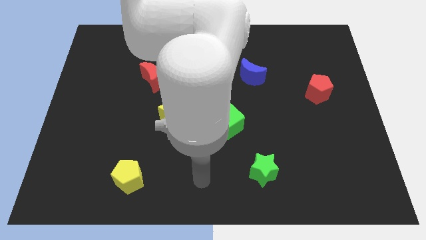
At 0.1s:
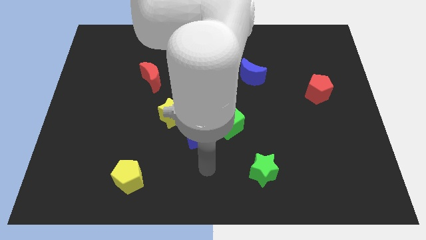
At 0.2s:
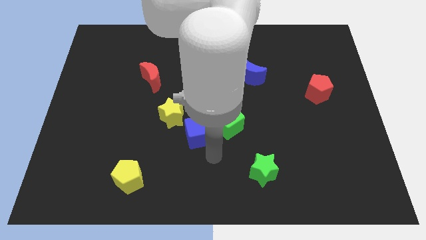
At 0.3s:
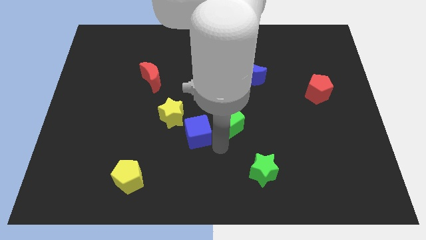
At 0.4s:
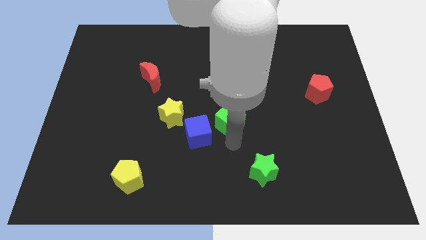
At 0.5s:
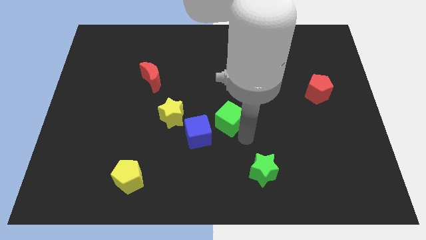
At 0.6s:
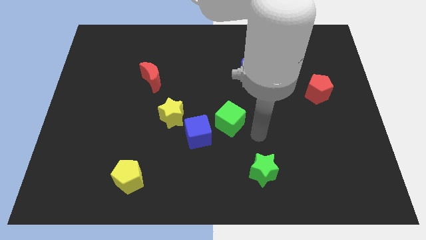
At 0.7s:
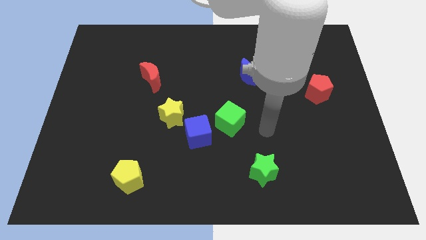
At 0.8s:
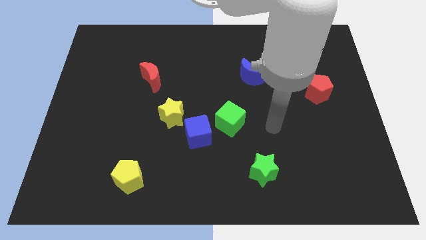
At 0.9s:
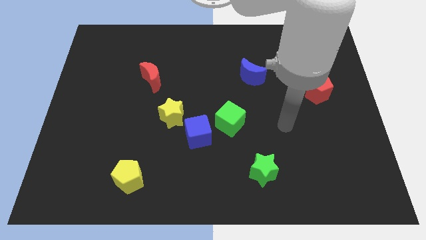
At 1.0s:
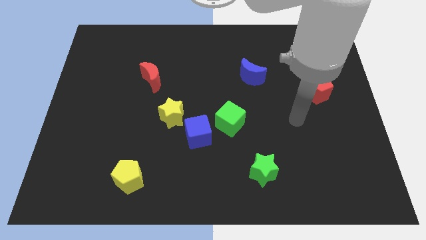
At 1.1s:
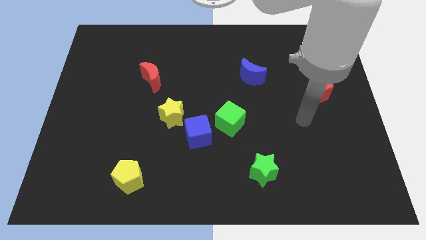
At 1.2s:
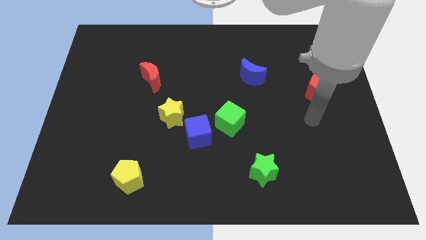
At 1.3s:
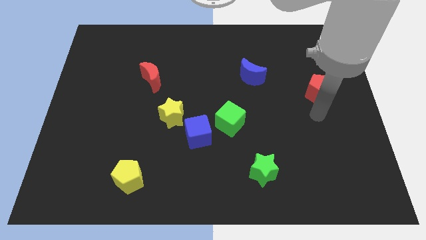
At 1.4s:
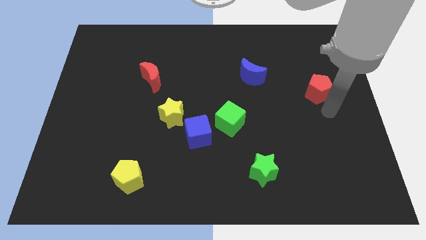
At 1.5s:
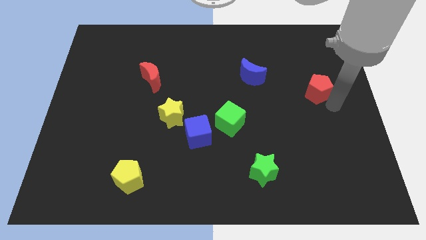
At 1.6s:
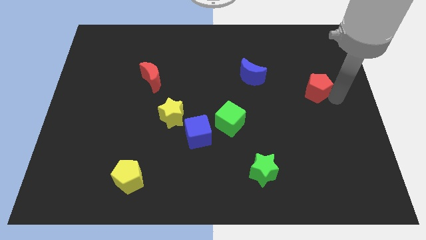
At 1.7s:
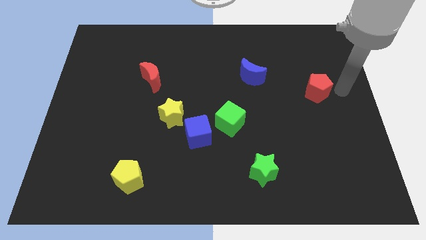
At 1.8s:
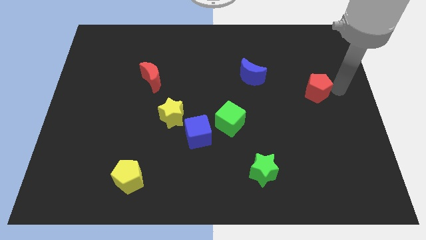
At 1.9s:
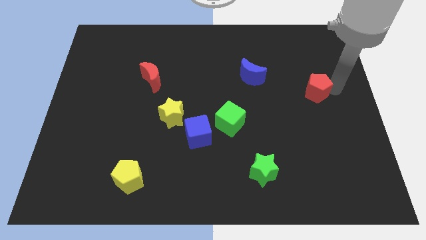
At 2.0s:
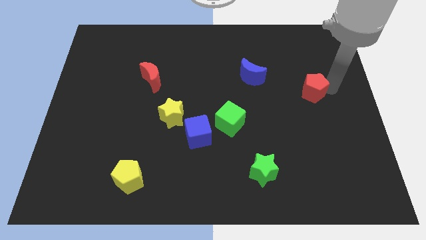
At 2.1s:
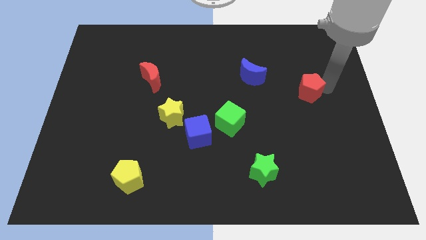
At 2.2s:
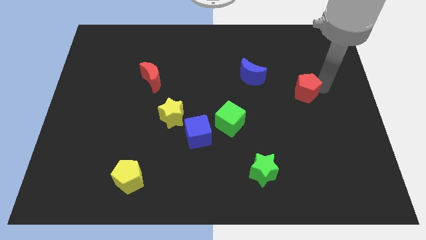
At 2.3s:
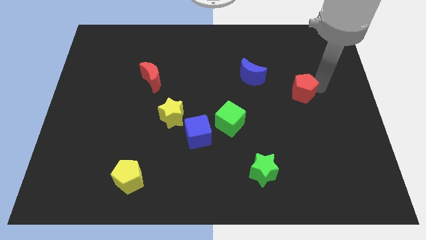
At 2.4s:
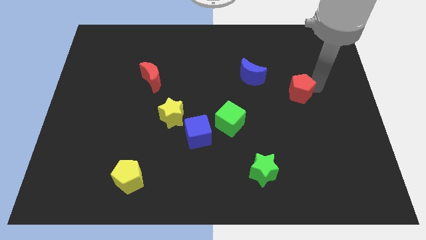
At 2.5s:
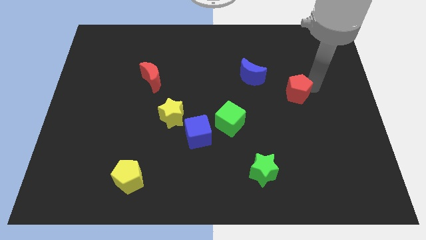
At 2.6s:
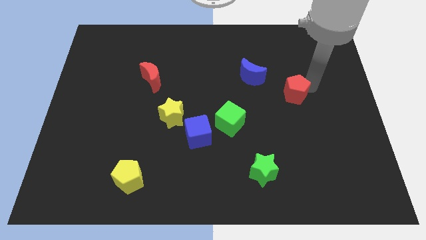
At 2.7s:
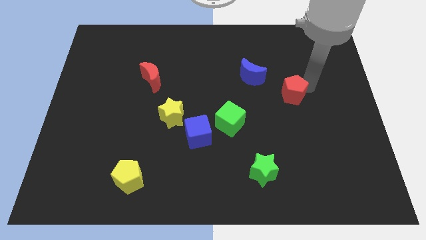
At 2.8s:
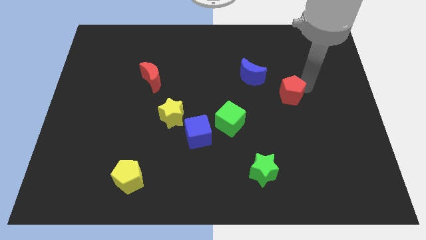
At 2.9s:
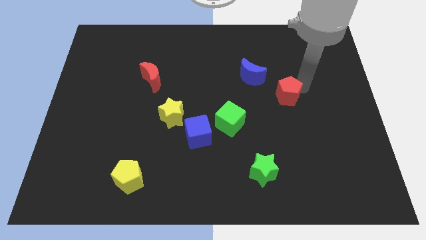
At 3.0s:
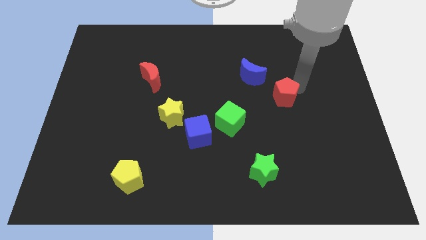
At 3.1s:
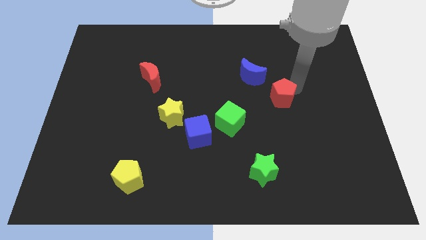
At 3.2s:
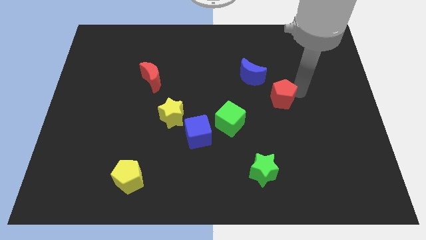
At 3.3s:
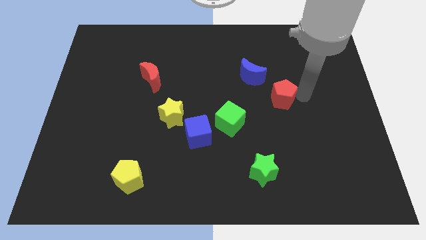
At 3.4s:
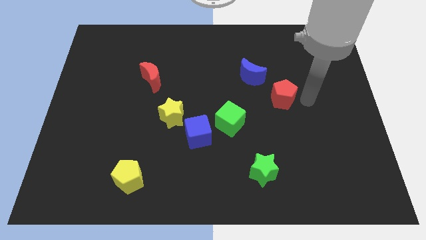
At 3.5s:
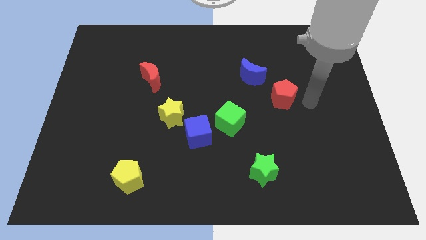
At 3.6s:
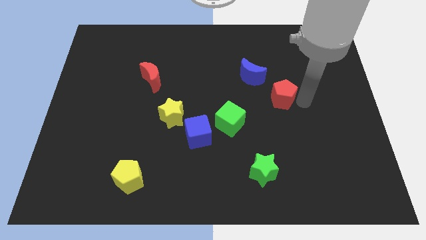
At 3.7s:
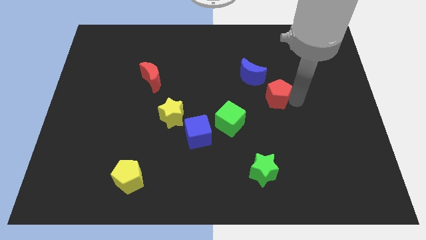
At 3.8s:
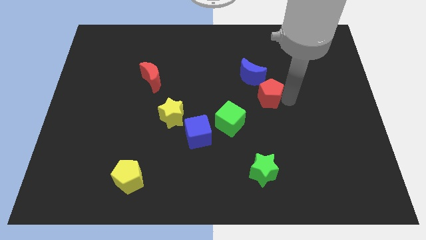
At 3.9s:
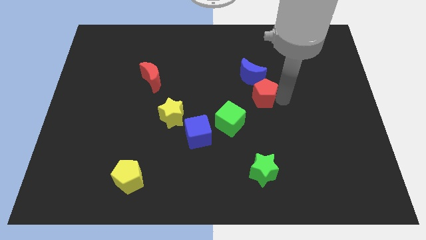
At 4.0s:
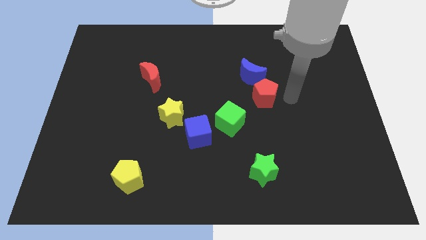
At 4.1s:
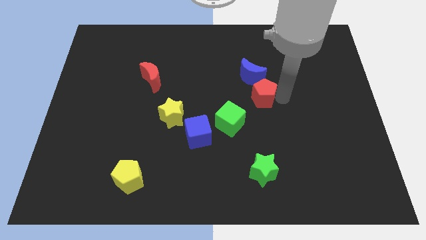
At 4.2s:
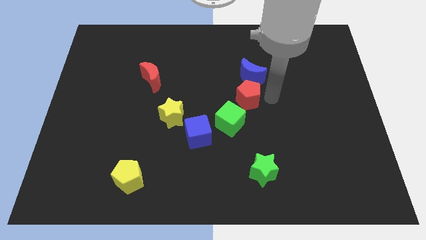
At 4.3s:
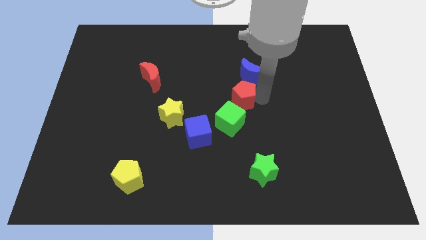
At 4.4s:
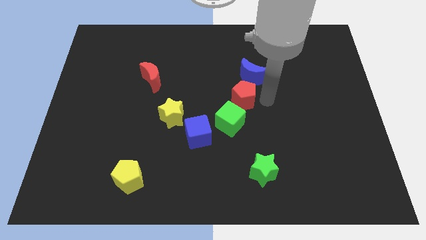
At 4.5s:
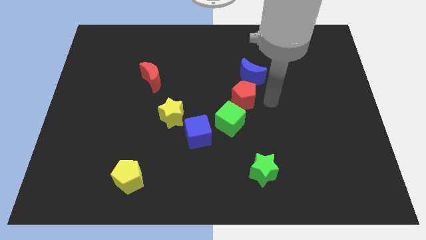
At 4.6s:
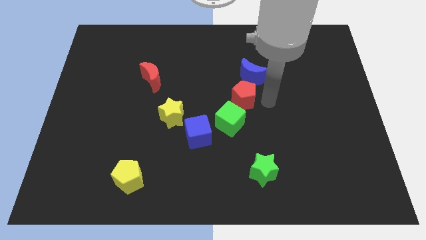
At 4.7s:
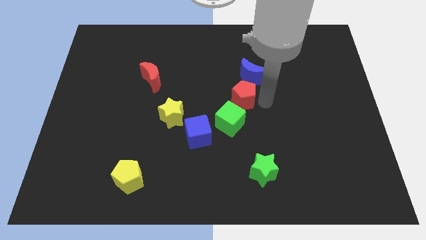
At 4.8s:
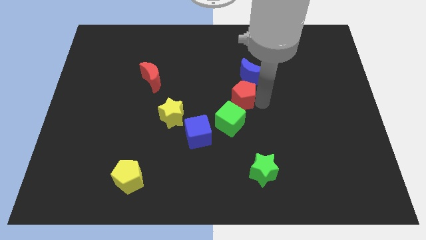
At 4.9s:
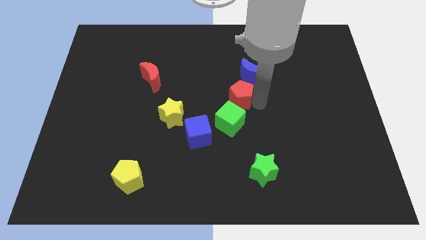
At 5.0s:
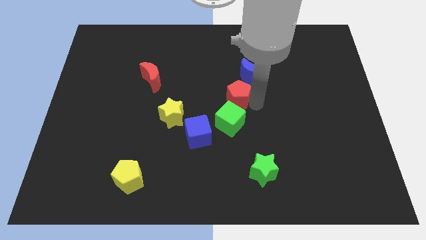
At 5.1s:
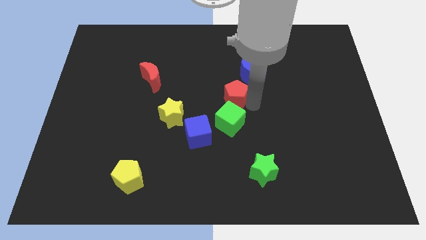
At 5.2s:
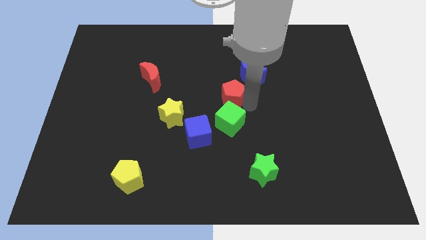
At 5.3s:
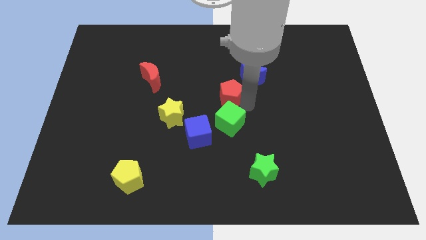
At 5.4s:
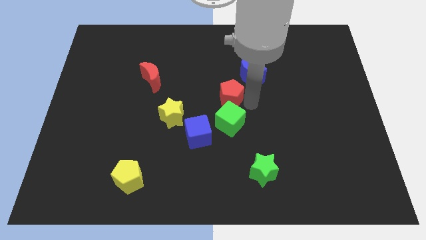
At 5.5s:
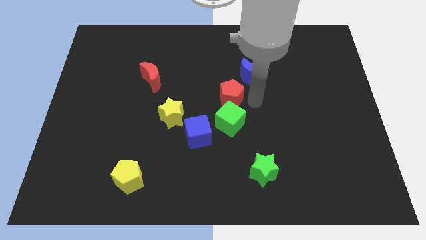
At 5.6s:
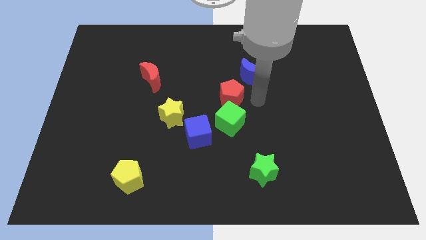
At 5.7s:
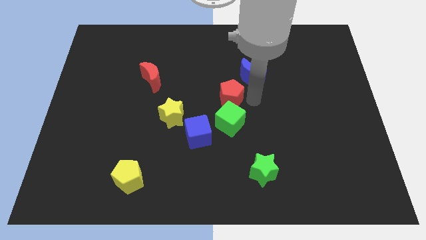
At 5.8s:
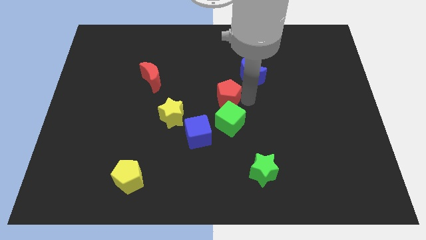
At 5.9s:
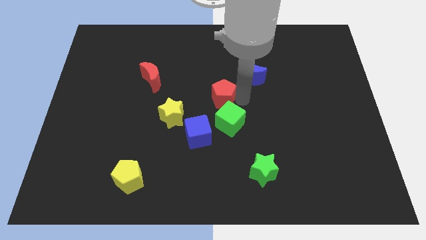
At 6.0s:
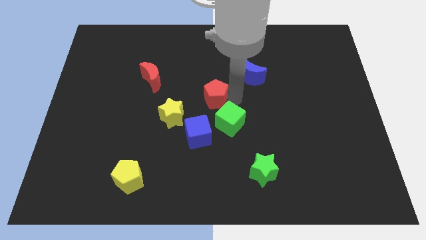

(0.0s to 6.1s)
slide the red pentagon above the blue cube

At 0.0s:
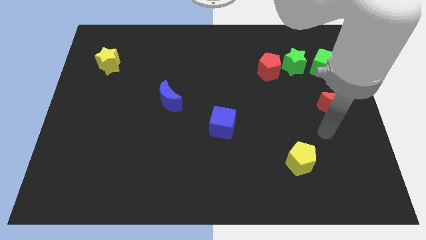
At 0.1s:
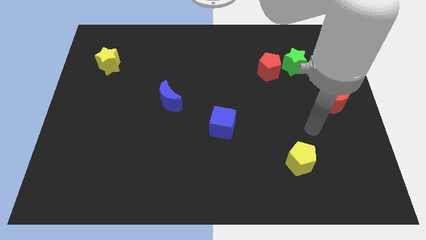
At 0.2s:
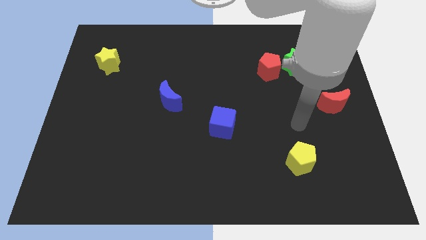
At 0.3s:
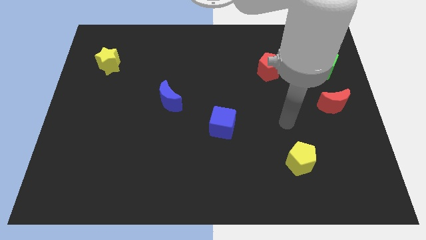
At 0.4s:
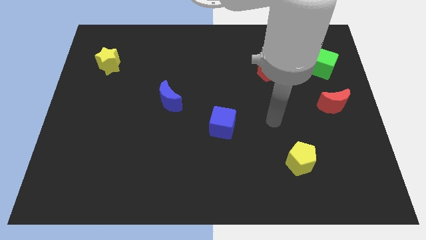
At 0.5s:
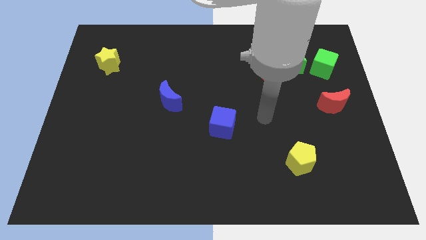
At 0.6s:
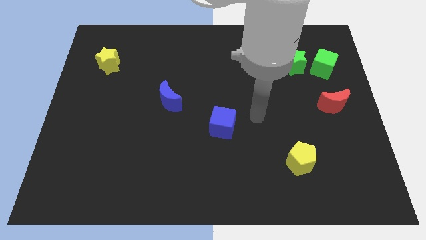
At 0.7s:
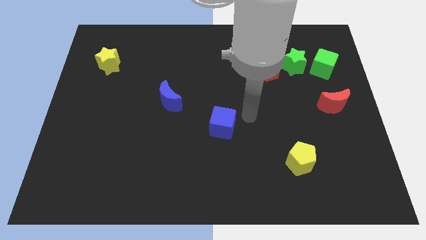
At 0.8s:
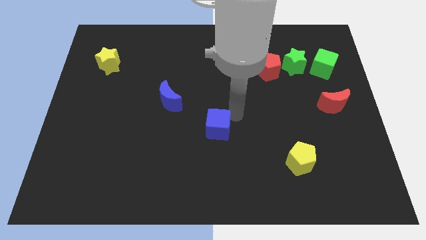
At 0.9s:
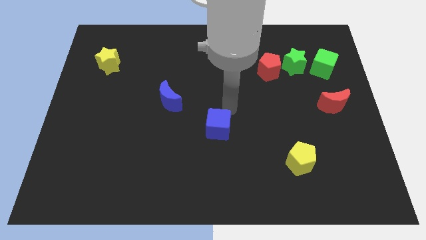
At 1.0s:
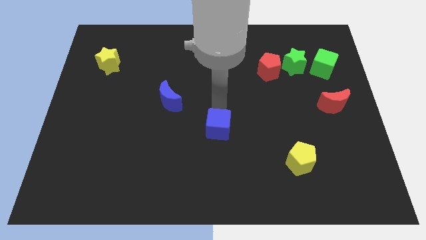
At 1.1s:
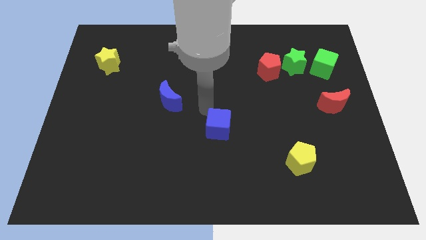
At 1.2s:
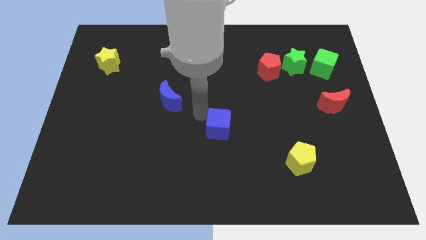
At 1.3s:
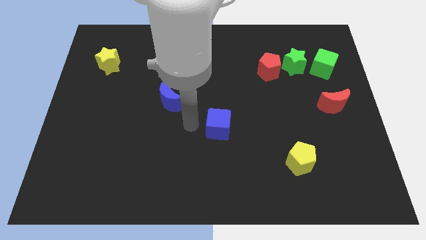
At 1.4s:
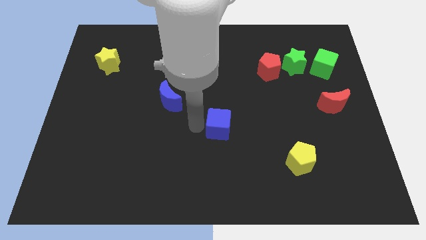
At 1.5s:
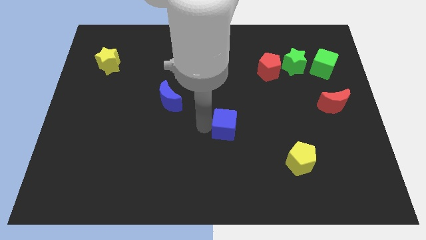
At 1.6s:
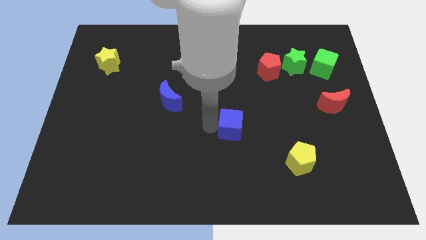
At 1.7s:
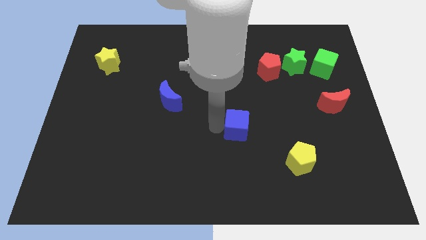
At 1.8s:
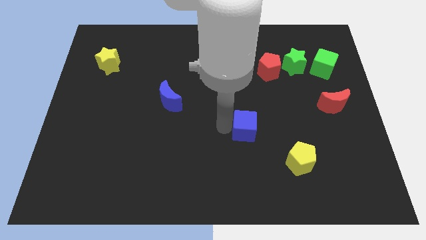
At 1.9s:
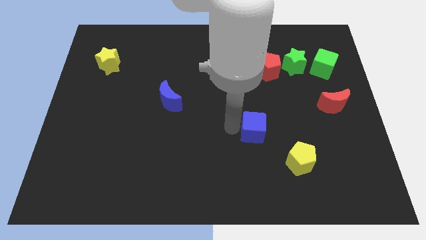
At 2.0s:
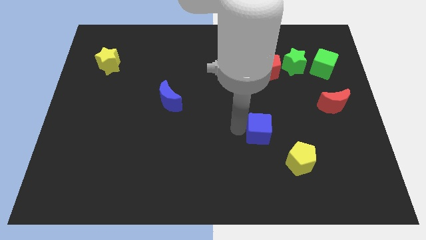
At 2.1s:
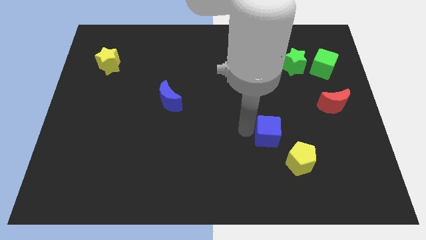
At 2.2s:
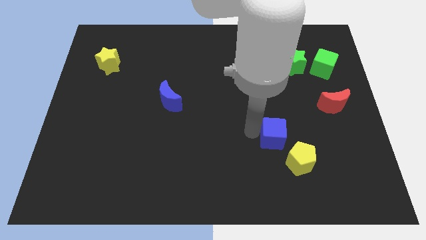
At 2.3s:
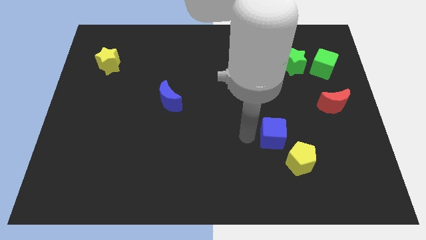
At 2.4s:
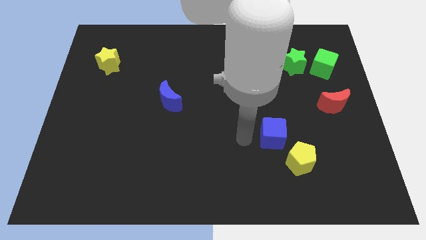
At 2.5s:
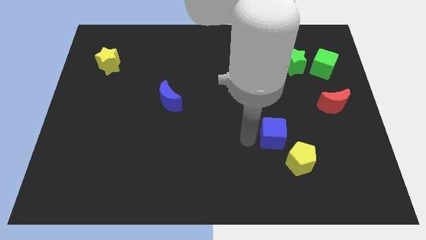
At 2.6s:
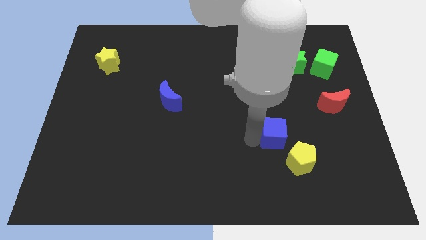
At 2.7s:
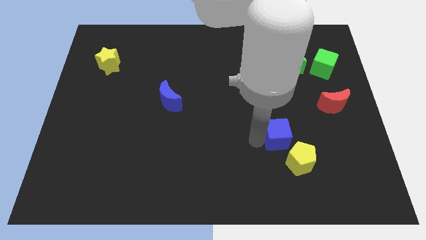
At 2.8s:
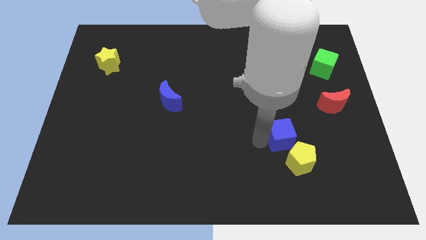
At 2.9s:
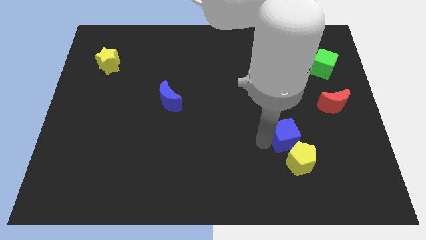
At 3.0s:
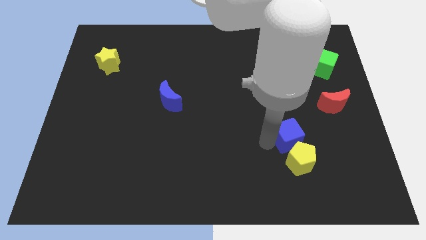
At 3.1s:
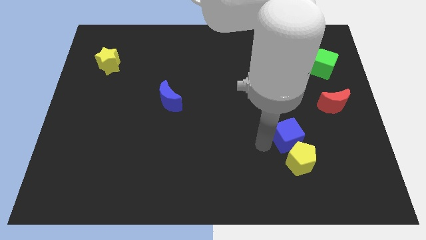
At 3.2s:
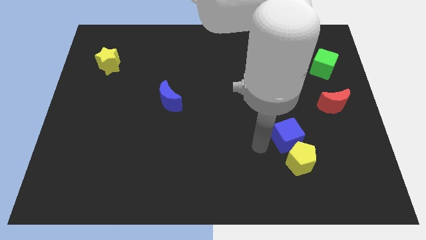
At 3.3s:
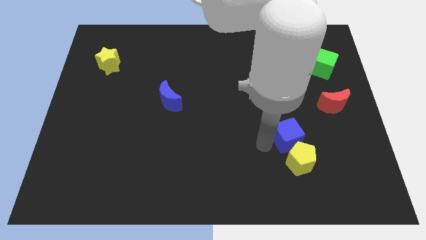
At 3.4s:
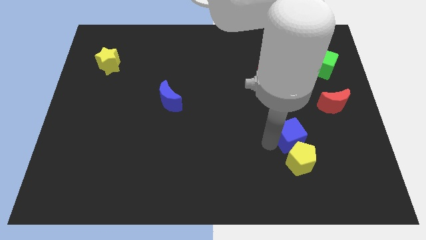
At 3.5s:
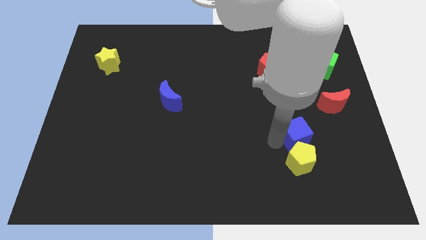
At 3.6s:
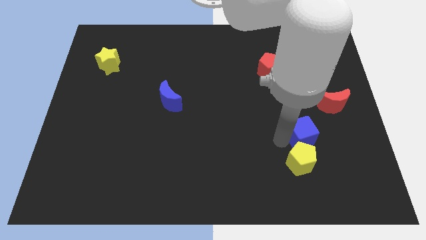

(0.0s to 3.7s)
push the blue cube diagonally down and to the left of the red moon
